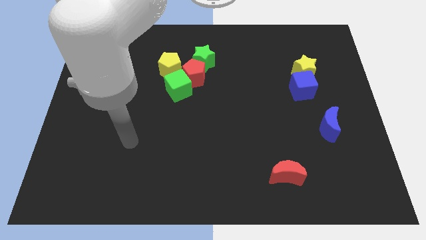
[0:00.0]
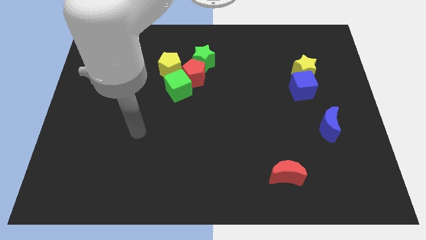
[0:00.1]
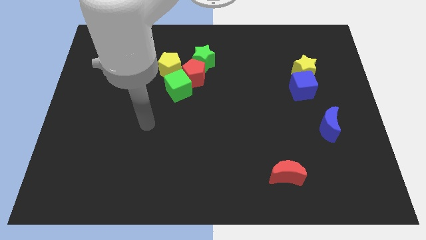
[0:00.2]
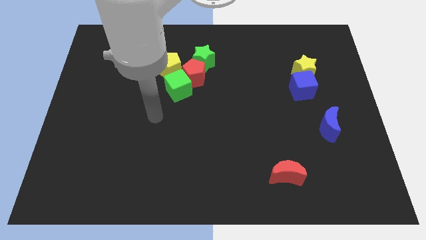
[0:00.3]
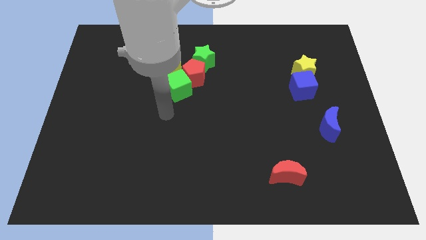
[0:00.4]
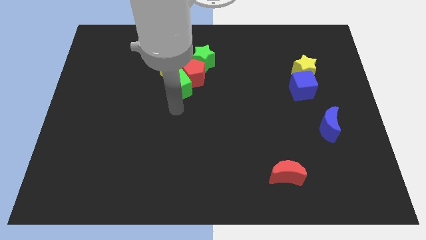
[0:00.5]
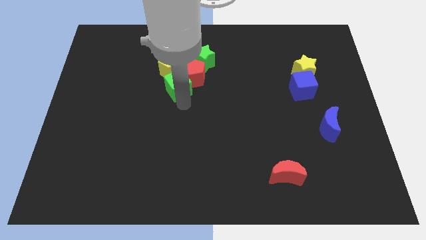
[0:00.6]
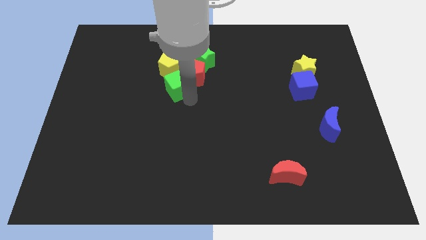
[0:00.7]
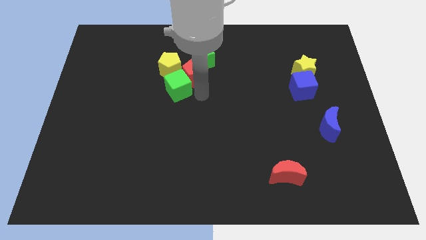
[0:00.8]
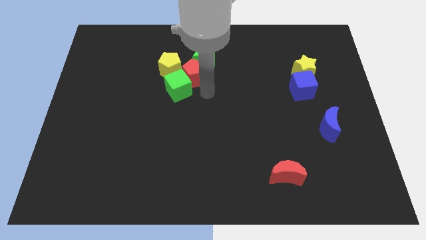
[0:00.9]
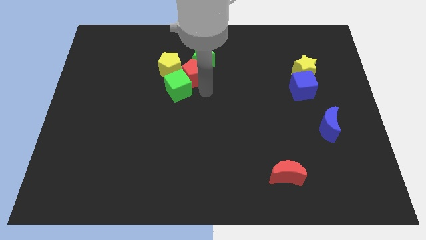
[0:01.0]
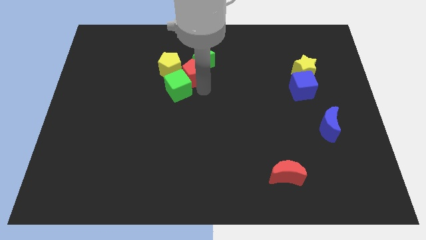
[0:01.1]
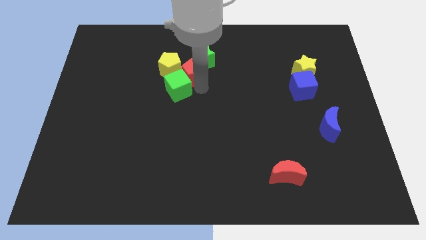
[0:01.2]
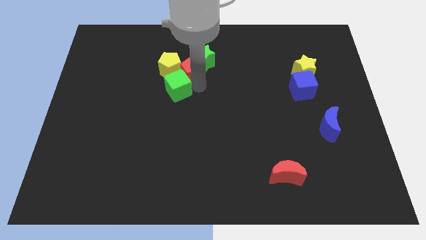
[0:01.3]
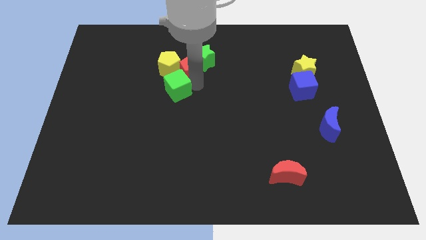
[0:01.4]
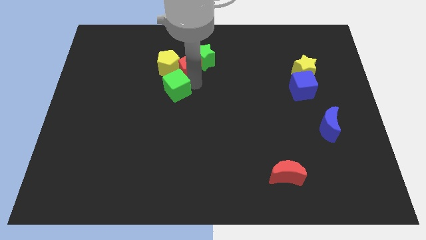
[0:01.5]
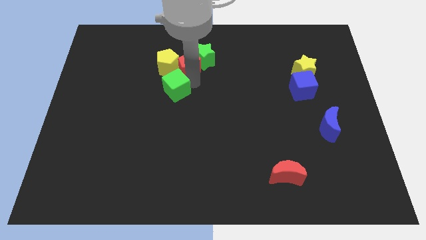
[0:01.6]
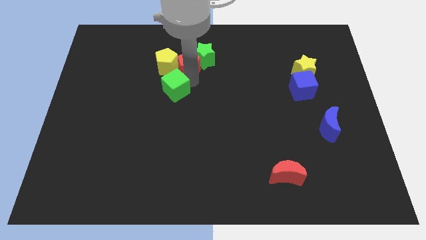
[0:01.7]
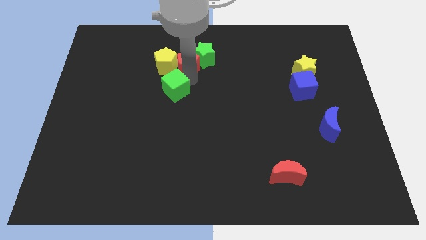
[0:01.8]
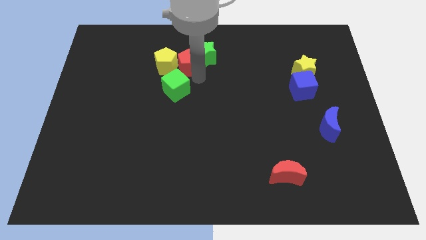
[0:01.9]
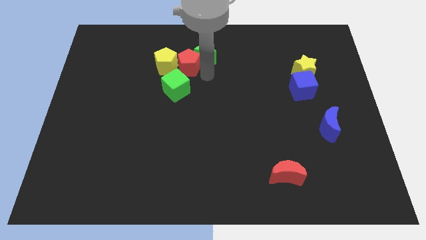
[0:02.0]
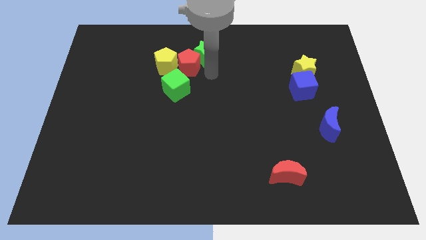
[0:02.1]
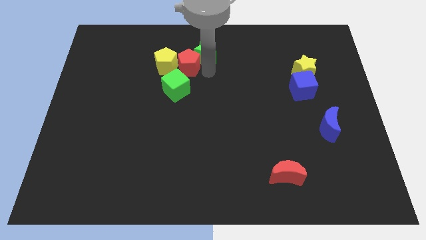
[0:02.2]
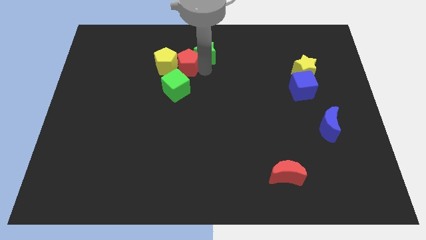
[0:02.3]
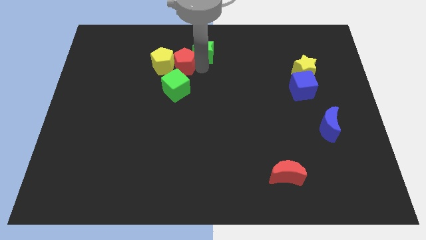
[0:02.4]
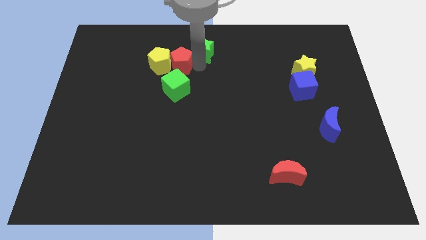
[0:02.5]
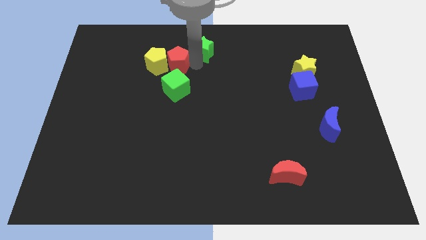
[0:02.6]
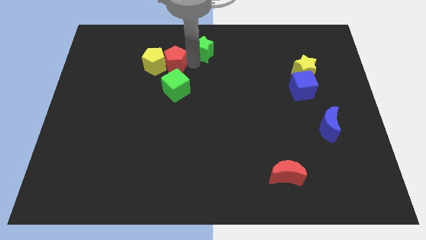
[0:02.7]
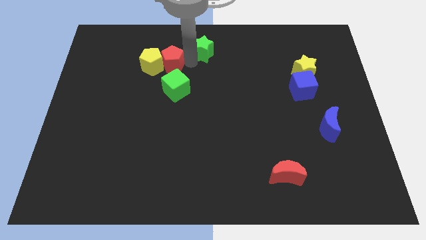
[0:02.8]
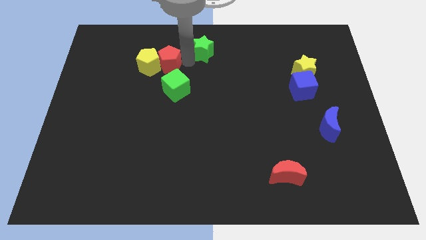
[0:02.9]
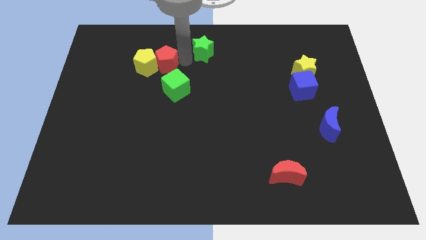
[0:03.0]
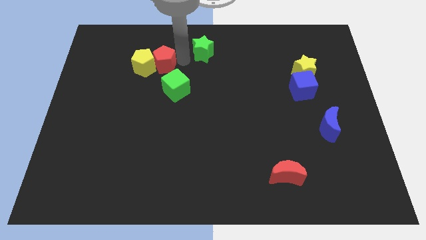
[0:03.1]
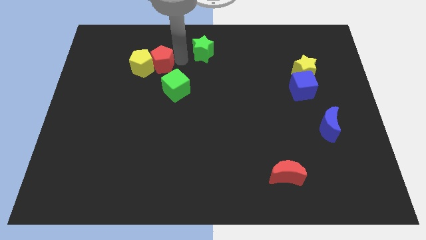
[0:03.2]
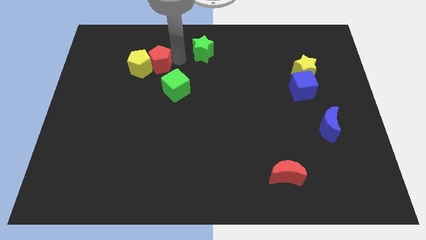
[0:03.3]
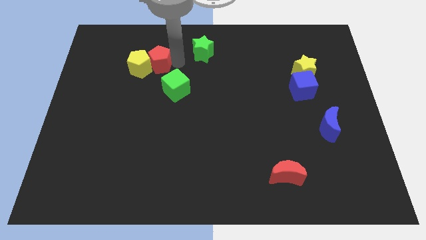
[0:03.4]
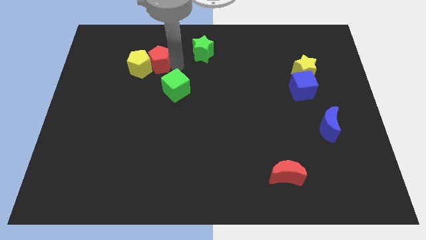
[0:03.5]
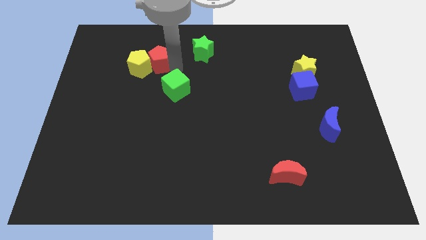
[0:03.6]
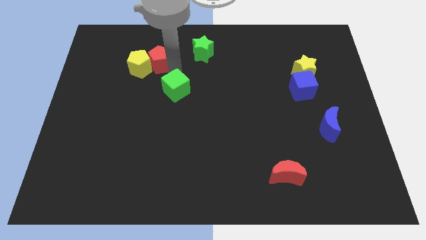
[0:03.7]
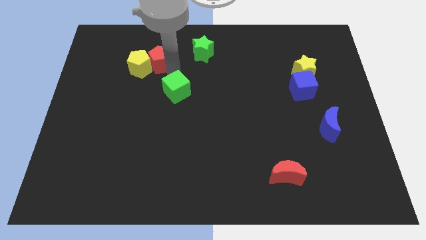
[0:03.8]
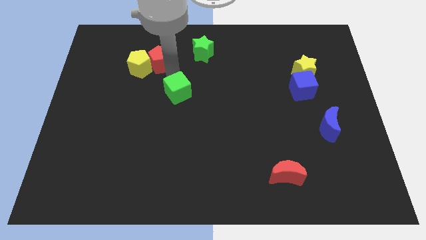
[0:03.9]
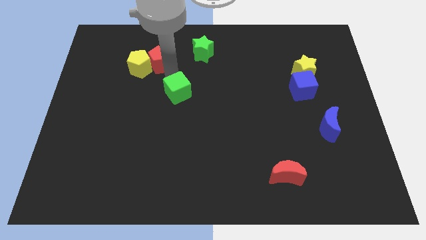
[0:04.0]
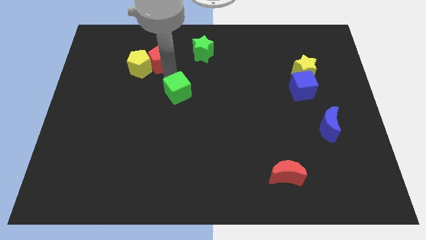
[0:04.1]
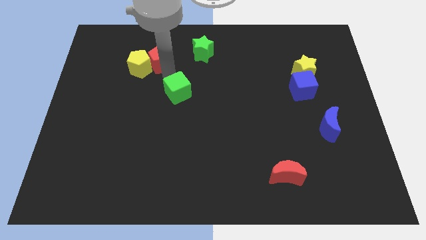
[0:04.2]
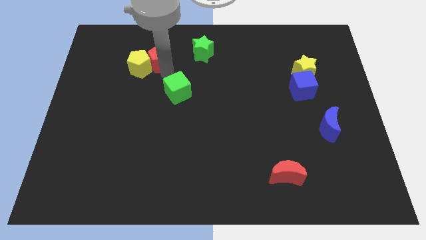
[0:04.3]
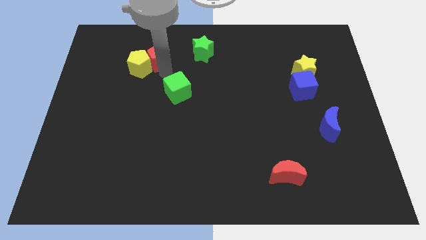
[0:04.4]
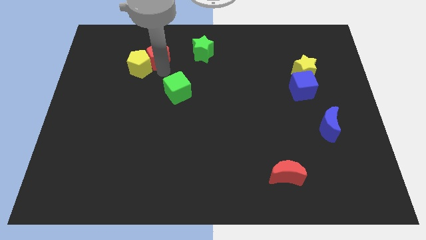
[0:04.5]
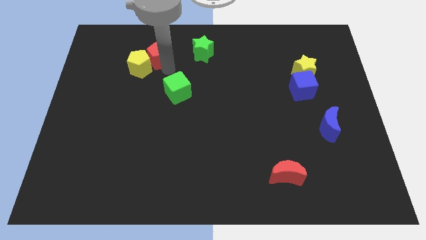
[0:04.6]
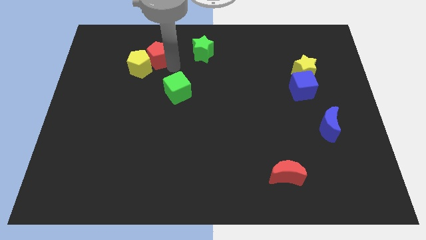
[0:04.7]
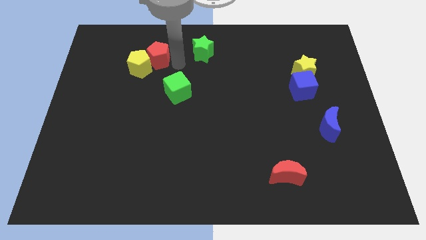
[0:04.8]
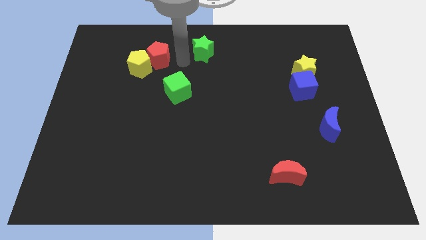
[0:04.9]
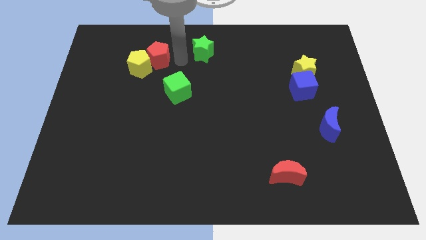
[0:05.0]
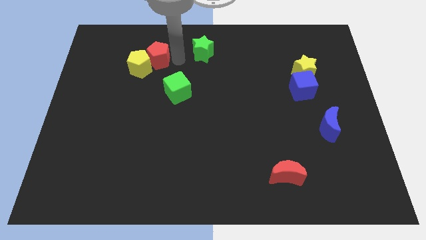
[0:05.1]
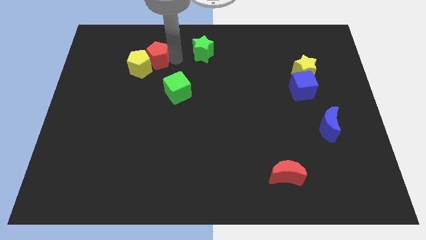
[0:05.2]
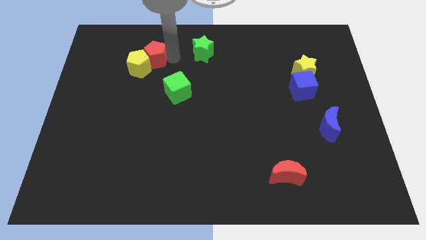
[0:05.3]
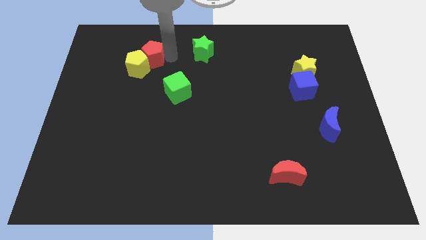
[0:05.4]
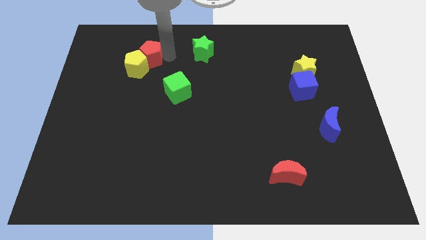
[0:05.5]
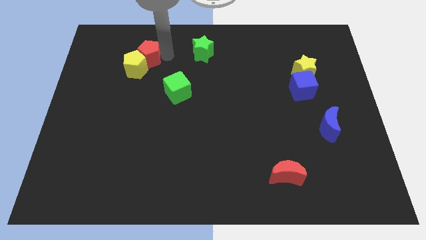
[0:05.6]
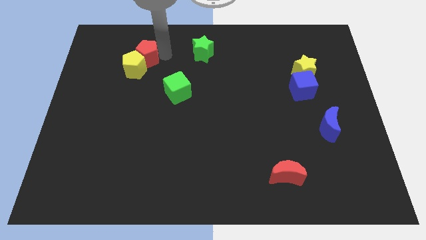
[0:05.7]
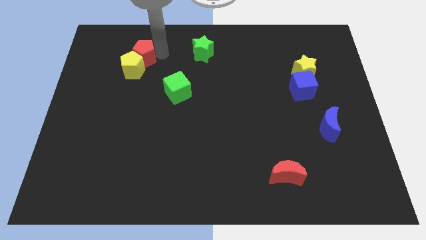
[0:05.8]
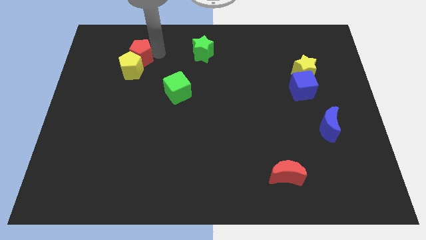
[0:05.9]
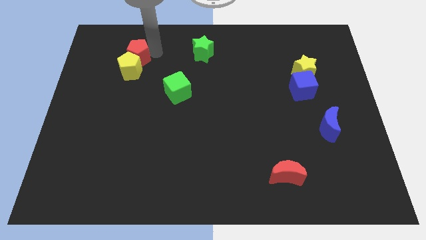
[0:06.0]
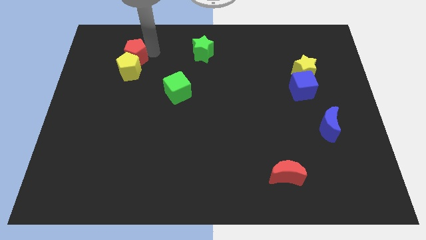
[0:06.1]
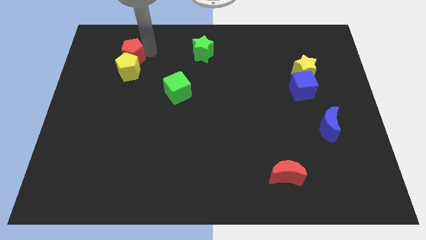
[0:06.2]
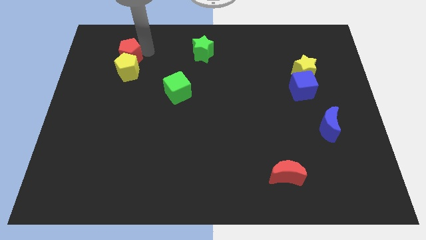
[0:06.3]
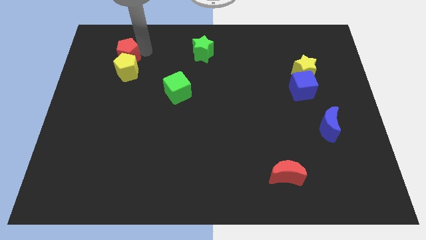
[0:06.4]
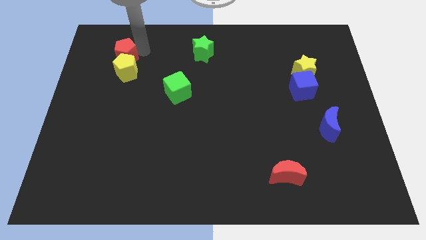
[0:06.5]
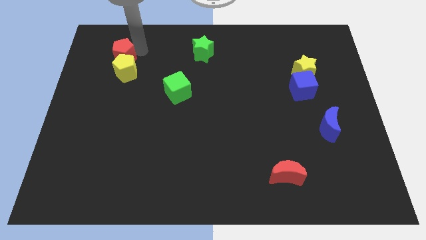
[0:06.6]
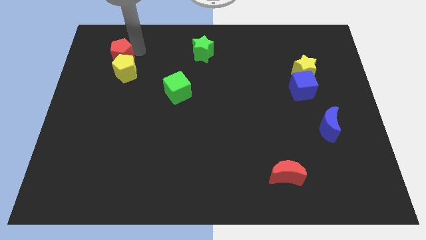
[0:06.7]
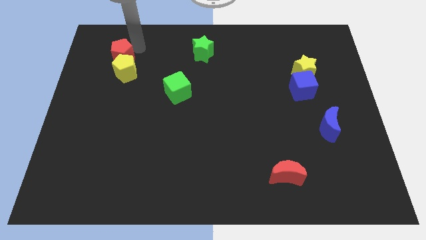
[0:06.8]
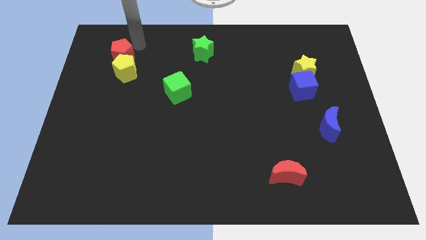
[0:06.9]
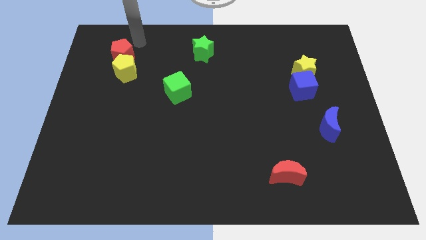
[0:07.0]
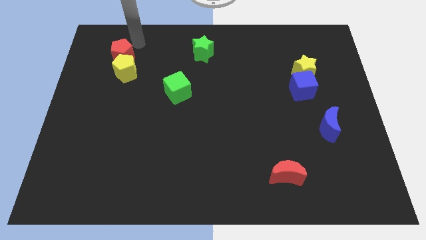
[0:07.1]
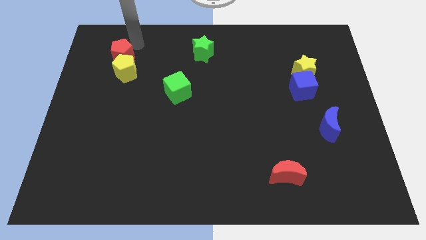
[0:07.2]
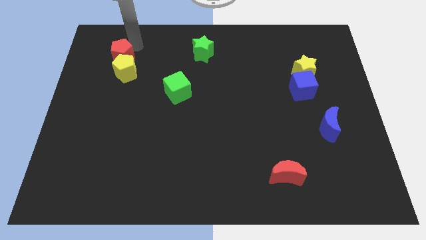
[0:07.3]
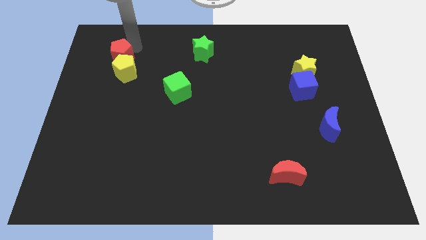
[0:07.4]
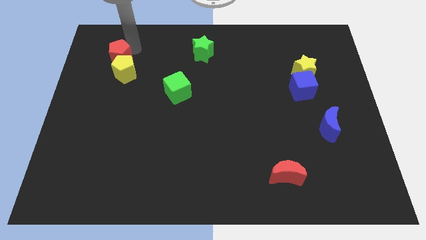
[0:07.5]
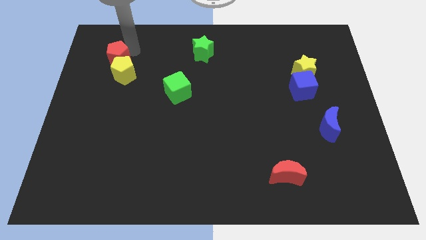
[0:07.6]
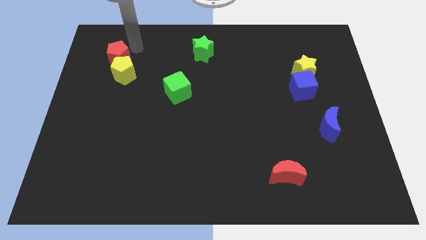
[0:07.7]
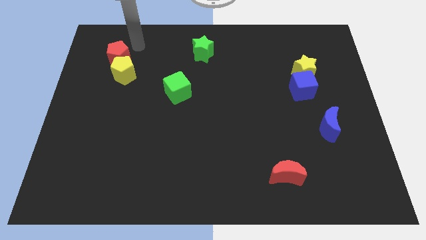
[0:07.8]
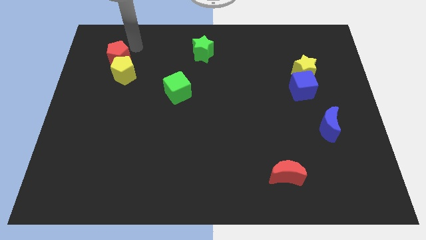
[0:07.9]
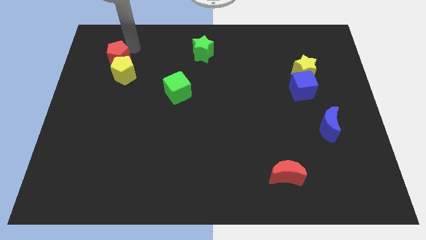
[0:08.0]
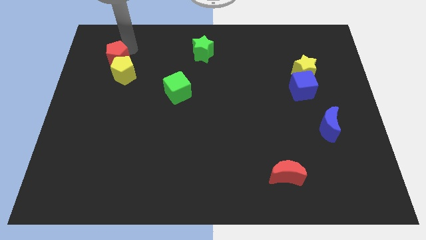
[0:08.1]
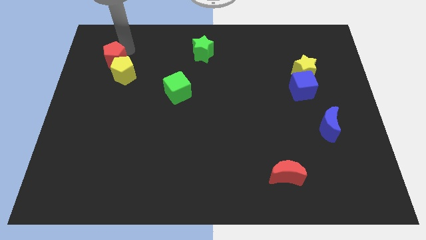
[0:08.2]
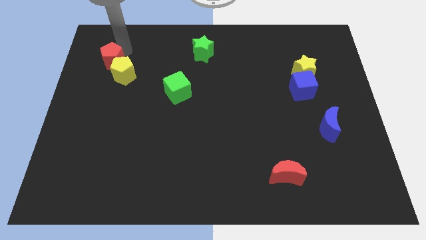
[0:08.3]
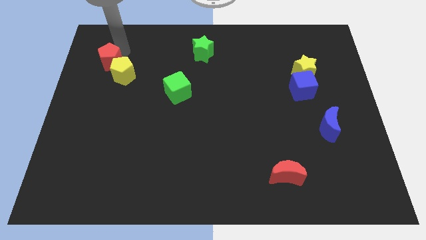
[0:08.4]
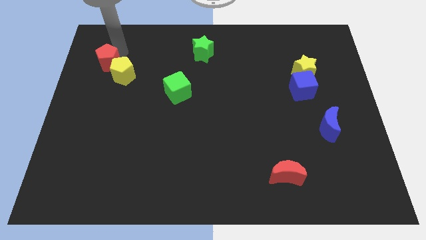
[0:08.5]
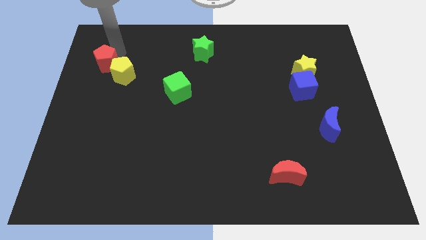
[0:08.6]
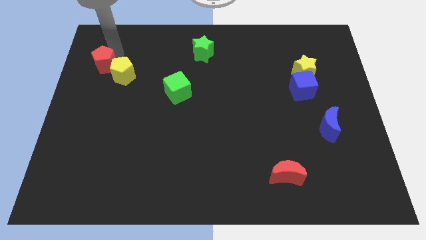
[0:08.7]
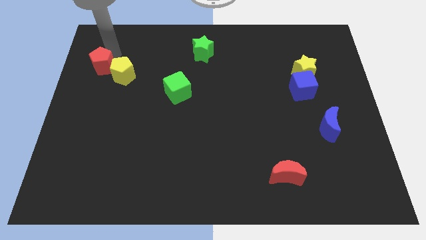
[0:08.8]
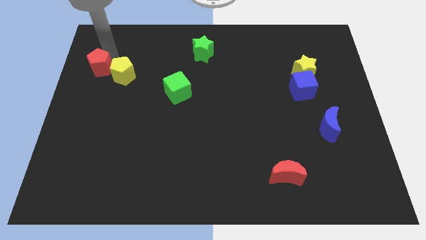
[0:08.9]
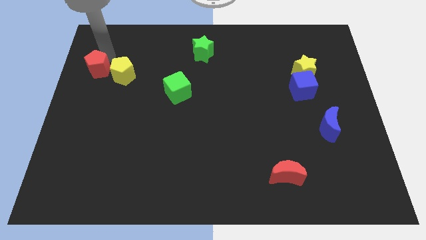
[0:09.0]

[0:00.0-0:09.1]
push the red pentagon to the left side of the board
